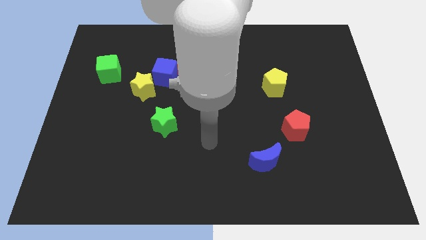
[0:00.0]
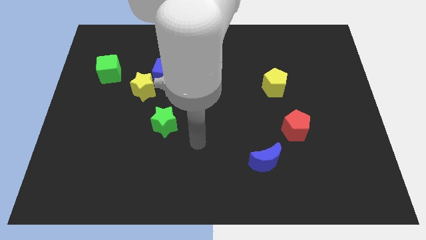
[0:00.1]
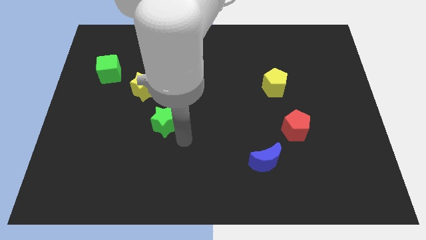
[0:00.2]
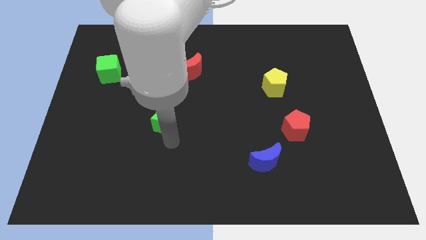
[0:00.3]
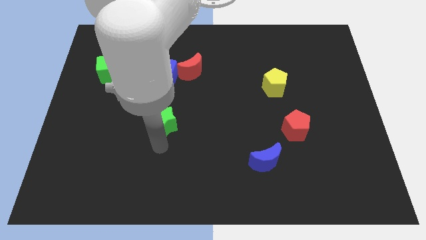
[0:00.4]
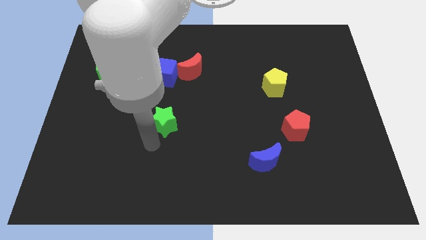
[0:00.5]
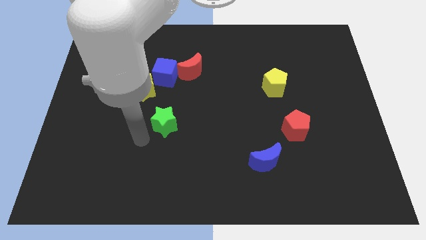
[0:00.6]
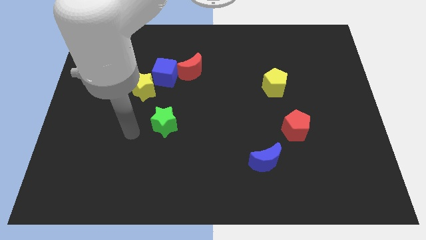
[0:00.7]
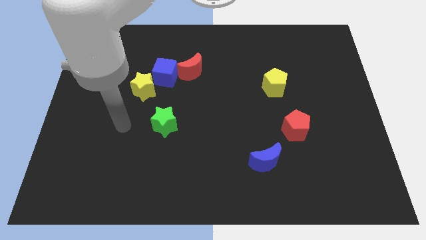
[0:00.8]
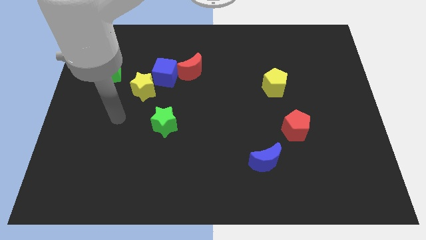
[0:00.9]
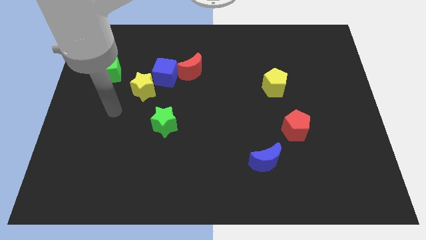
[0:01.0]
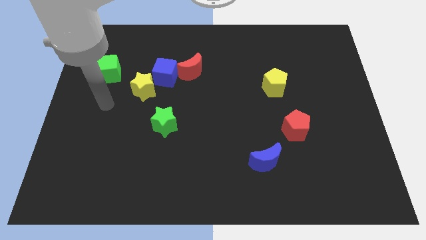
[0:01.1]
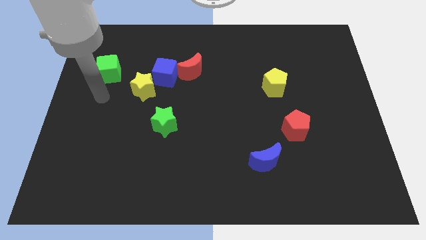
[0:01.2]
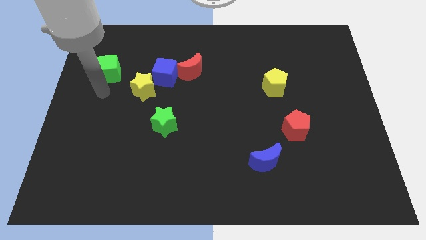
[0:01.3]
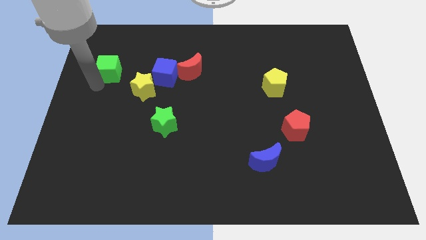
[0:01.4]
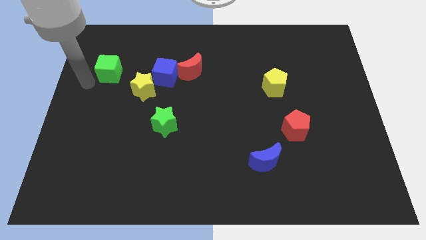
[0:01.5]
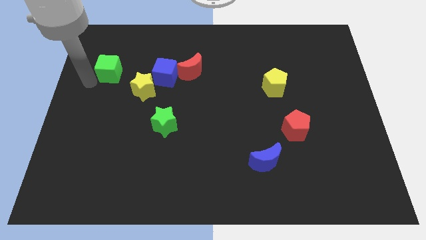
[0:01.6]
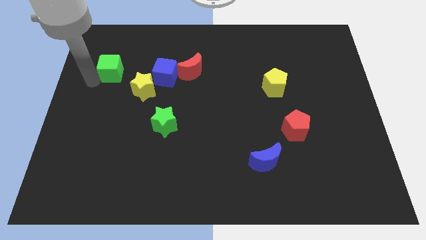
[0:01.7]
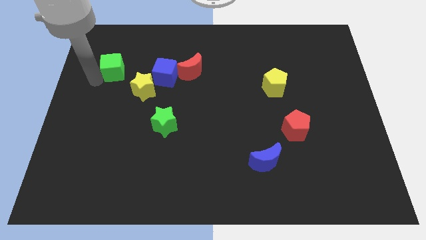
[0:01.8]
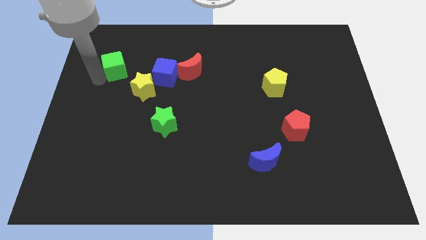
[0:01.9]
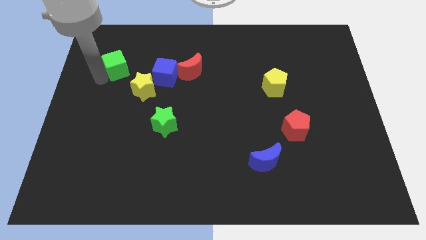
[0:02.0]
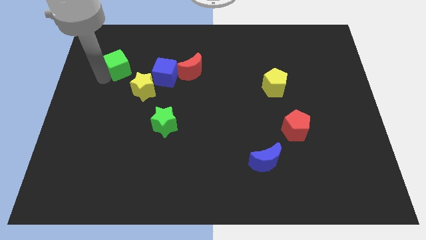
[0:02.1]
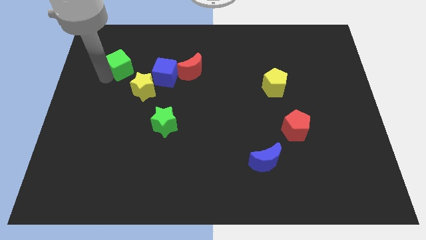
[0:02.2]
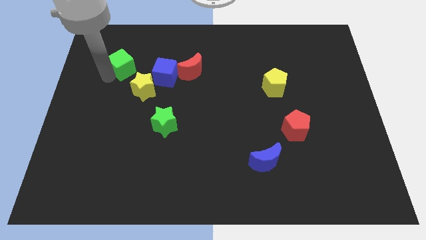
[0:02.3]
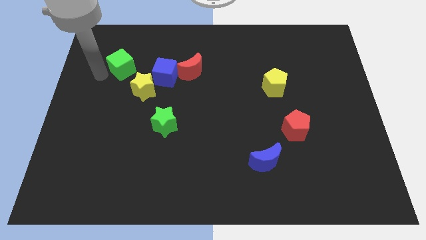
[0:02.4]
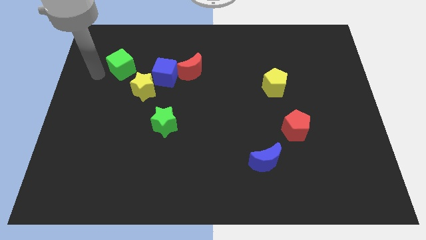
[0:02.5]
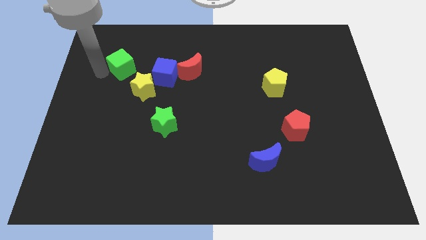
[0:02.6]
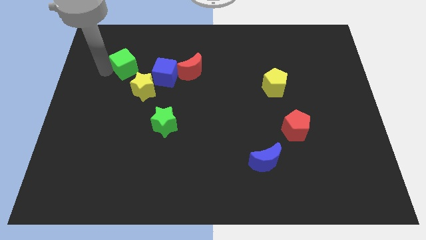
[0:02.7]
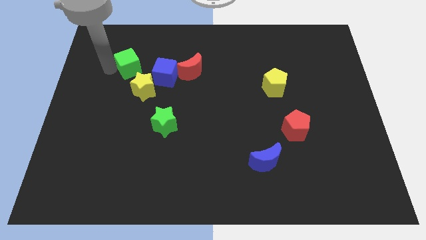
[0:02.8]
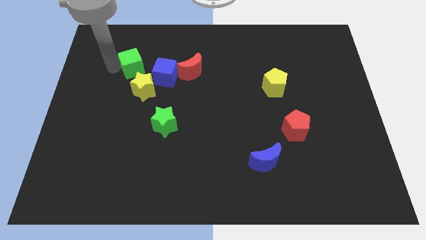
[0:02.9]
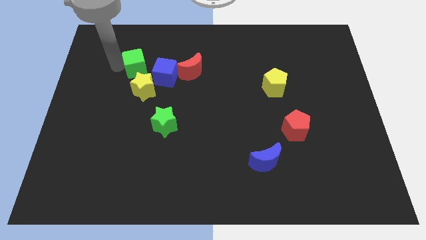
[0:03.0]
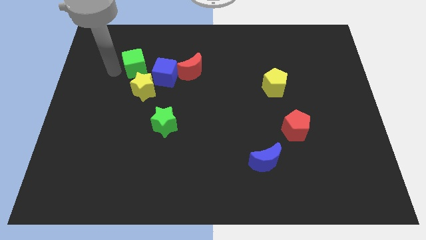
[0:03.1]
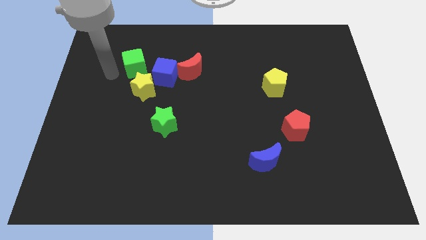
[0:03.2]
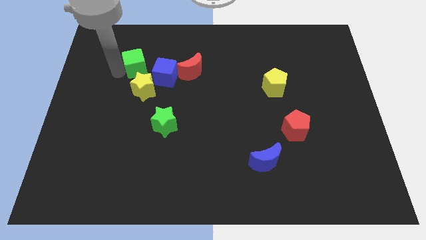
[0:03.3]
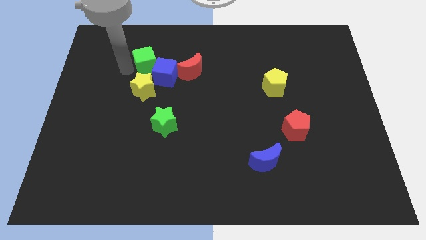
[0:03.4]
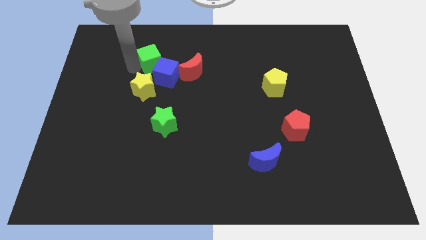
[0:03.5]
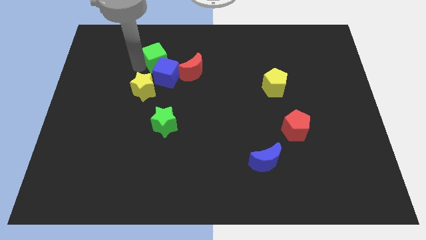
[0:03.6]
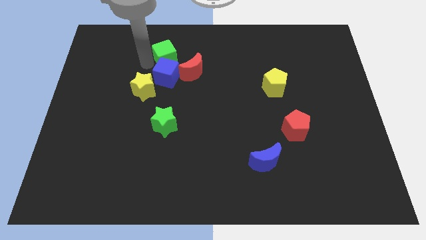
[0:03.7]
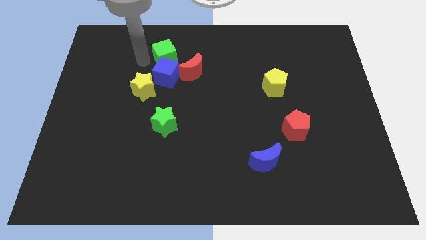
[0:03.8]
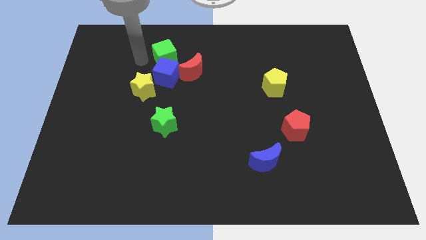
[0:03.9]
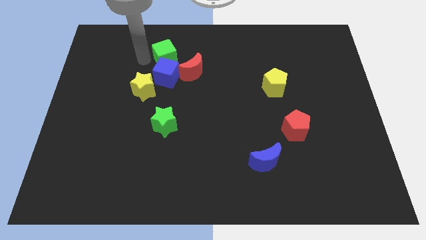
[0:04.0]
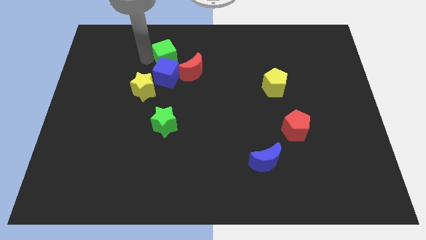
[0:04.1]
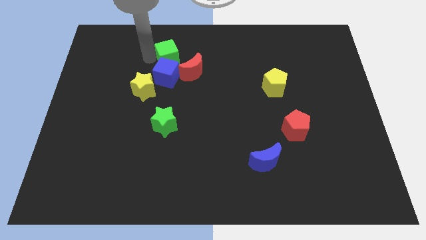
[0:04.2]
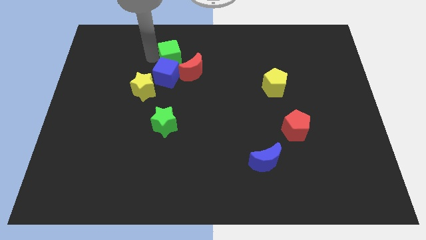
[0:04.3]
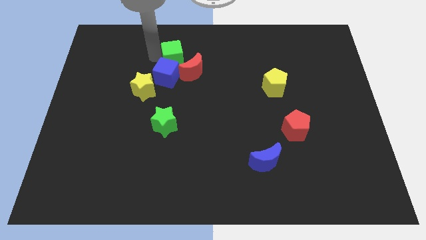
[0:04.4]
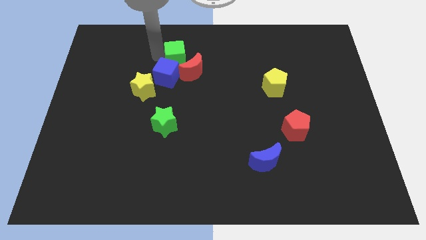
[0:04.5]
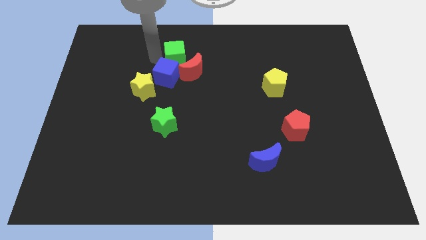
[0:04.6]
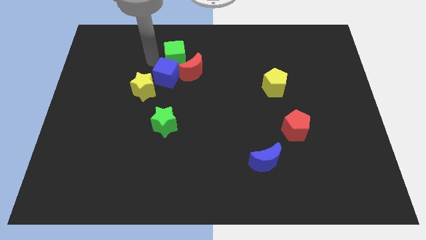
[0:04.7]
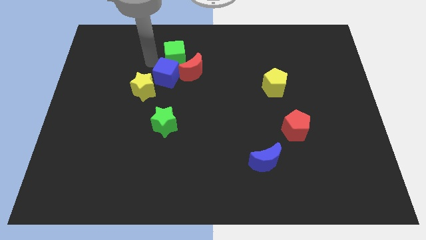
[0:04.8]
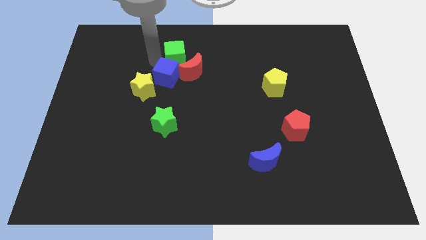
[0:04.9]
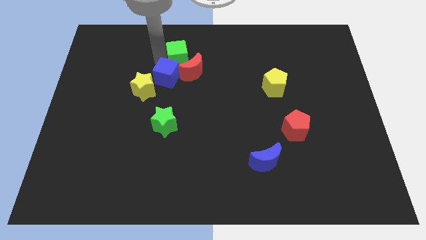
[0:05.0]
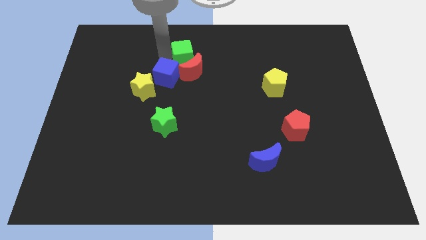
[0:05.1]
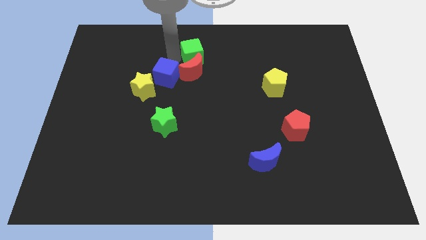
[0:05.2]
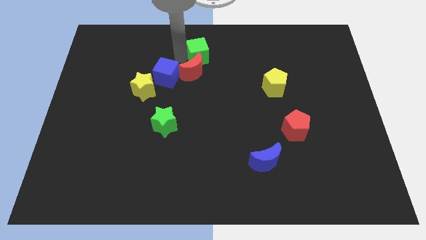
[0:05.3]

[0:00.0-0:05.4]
push the green cube to the top

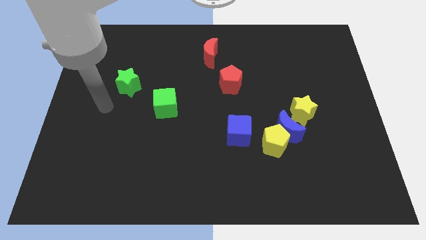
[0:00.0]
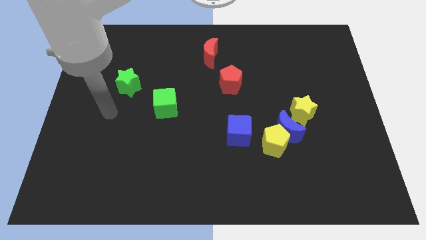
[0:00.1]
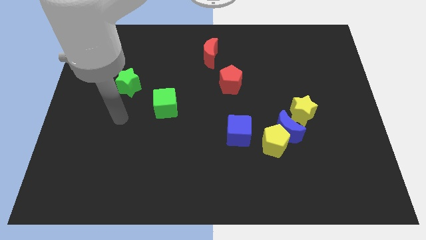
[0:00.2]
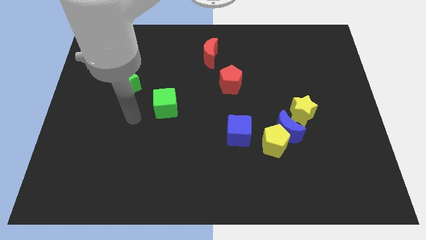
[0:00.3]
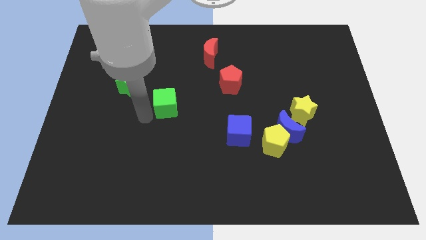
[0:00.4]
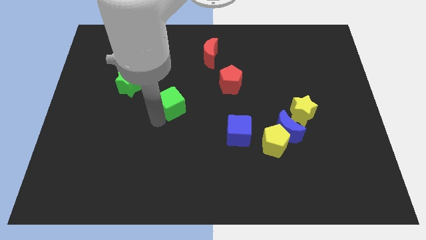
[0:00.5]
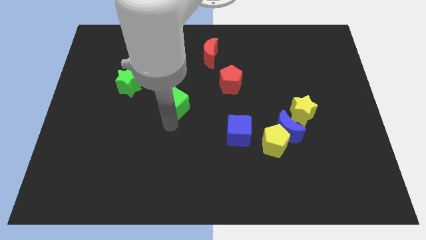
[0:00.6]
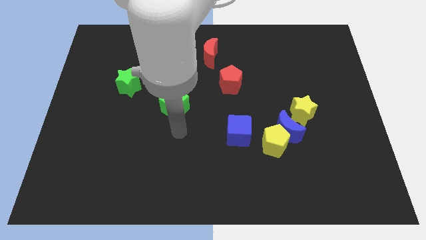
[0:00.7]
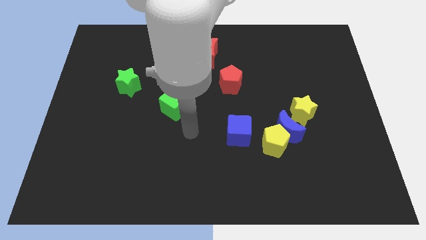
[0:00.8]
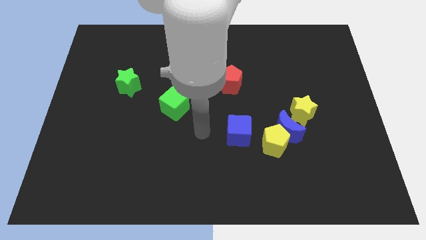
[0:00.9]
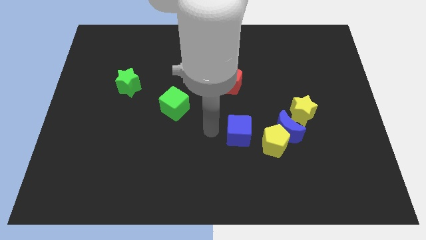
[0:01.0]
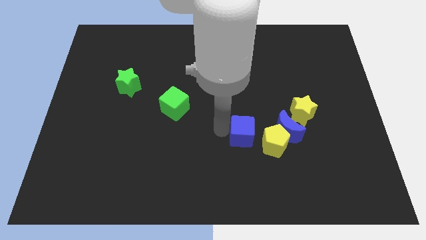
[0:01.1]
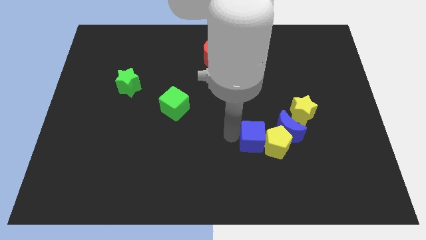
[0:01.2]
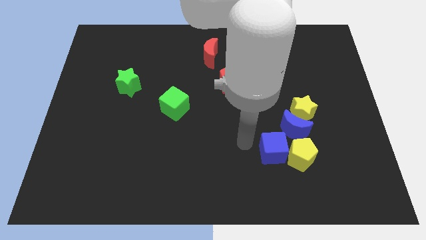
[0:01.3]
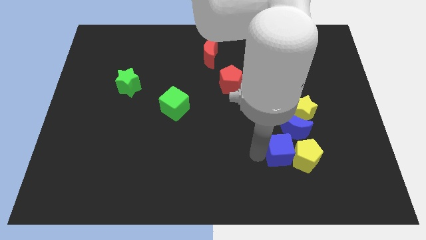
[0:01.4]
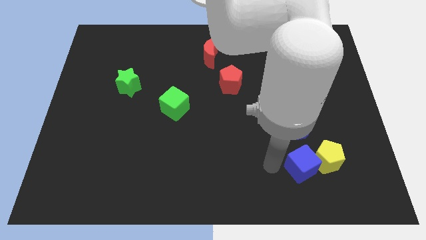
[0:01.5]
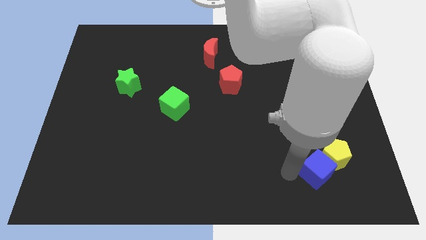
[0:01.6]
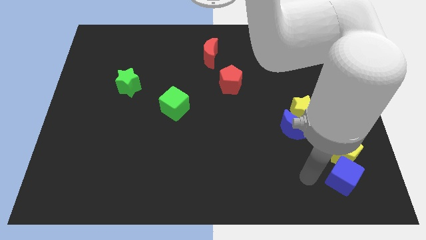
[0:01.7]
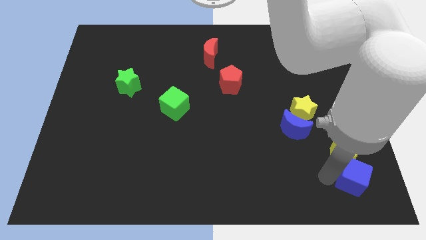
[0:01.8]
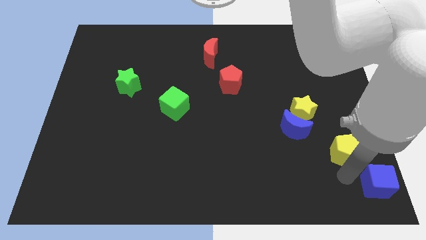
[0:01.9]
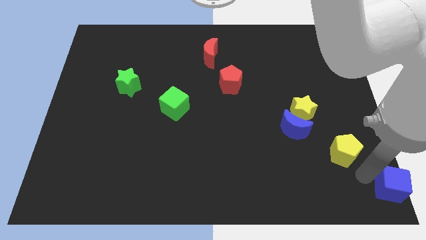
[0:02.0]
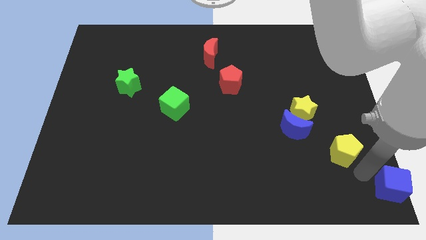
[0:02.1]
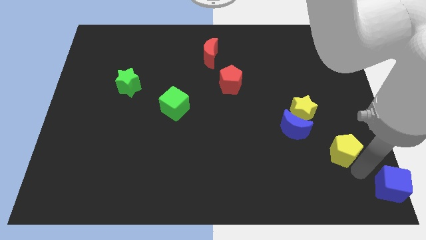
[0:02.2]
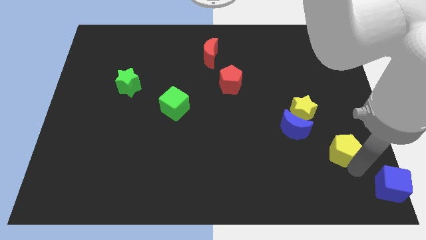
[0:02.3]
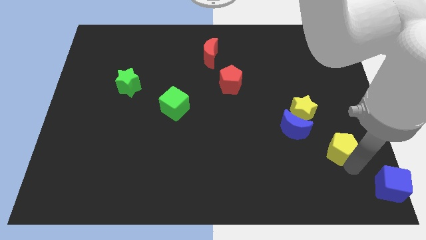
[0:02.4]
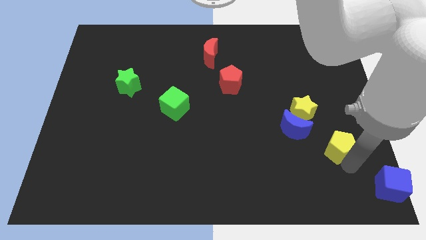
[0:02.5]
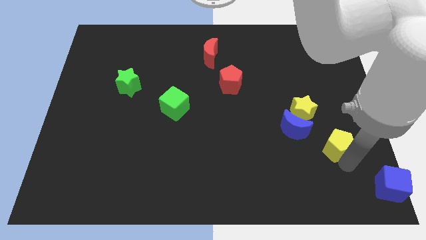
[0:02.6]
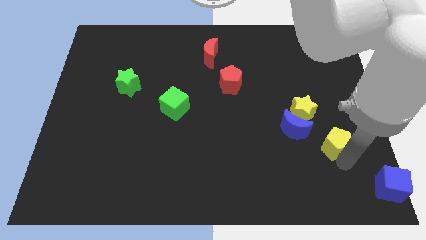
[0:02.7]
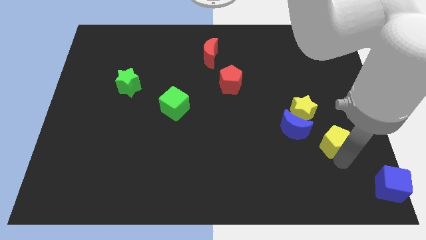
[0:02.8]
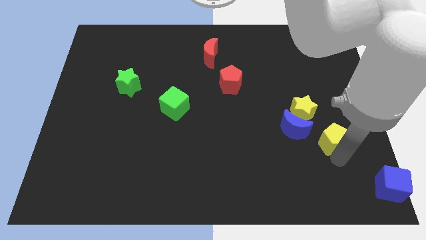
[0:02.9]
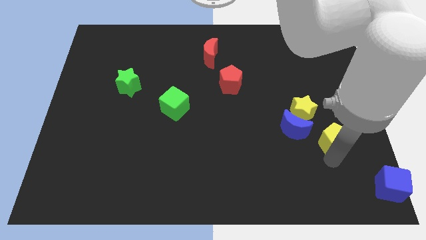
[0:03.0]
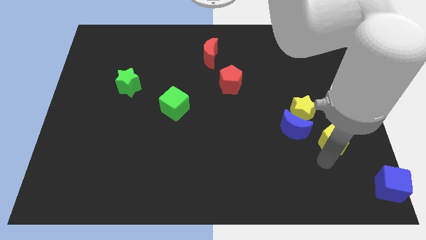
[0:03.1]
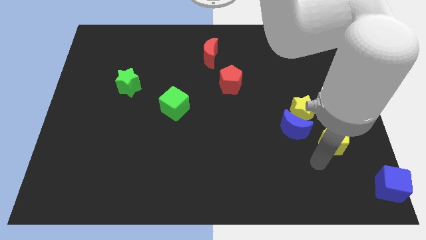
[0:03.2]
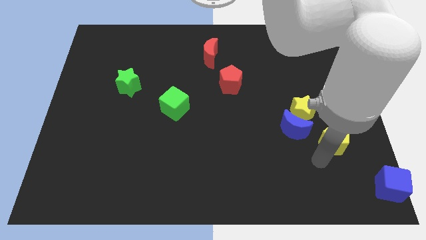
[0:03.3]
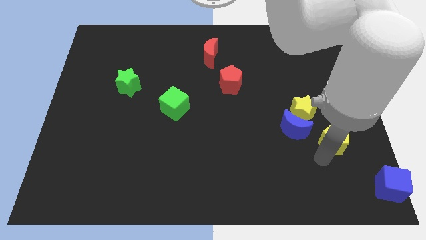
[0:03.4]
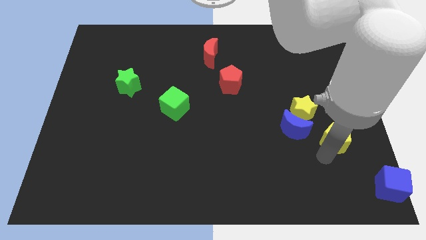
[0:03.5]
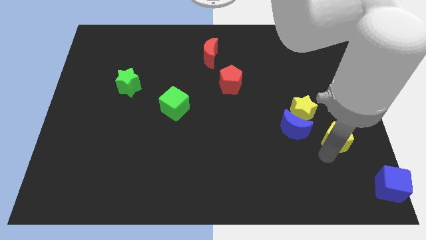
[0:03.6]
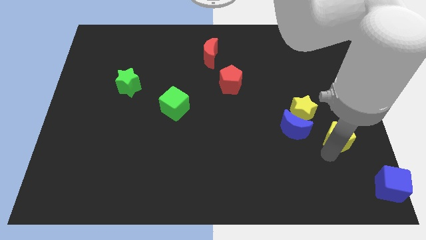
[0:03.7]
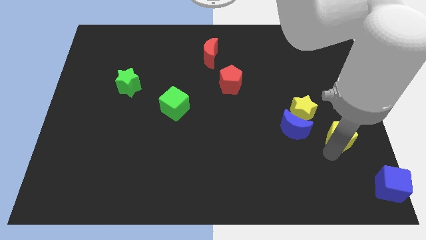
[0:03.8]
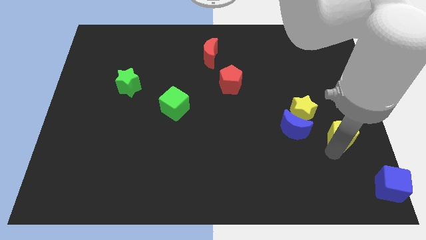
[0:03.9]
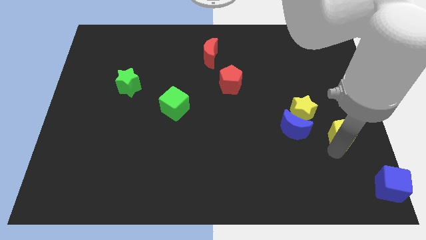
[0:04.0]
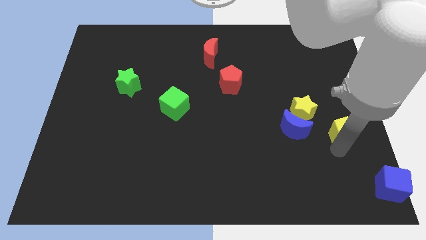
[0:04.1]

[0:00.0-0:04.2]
slide the yellow pentagon to the right side of the board
